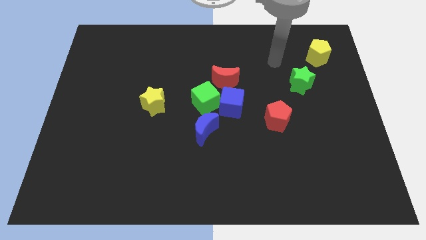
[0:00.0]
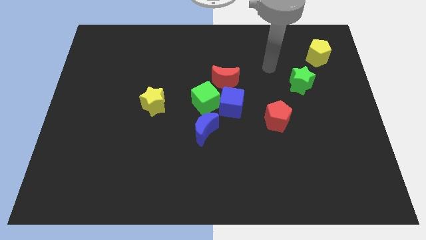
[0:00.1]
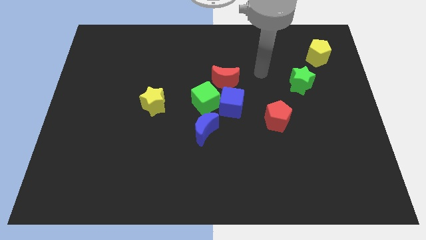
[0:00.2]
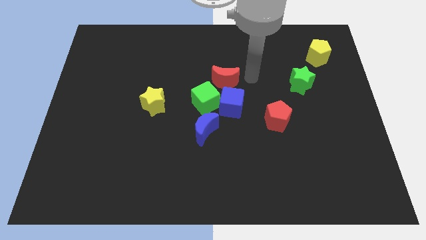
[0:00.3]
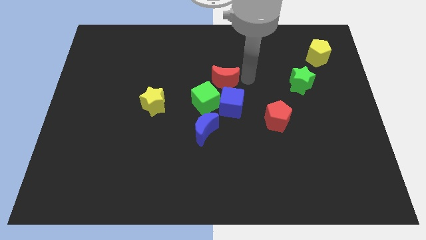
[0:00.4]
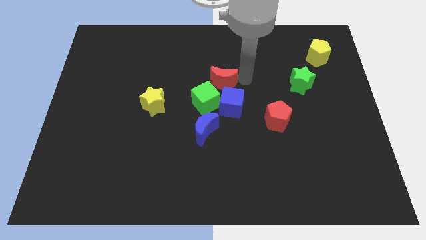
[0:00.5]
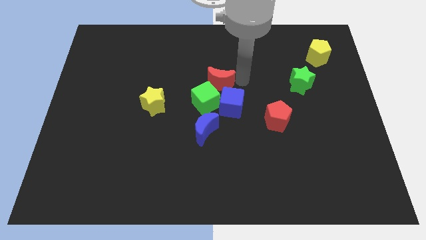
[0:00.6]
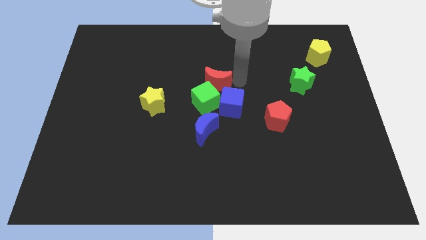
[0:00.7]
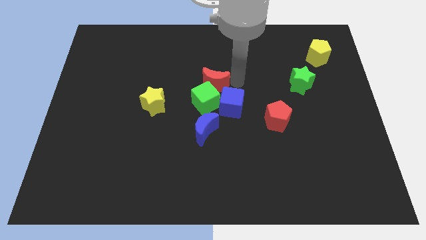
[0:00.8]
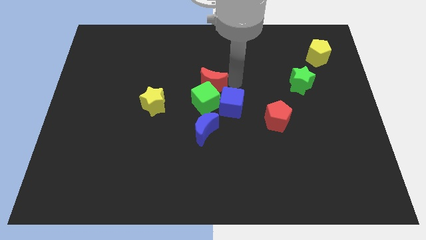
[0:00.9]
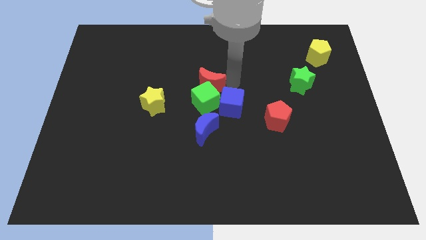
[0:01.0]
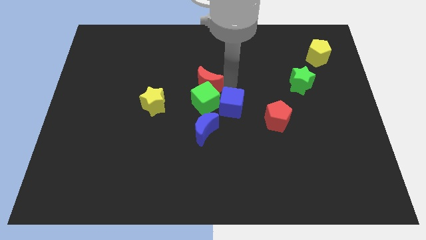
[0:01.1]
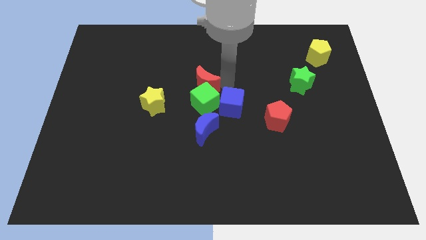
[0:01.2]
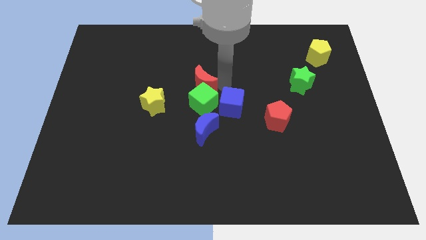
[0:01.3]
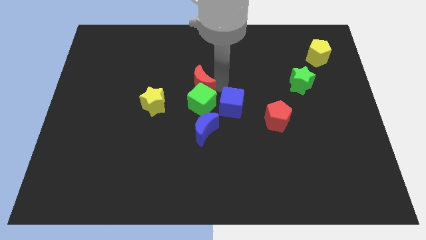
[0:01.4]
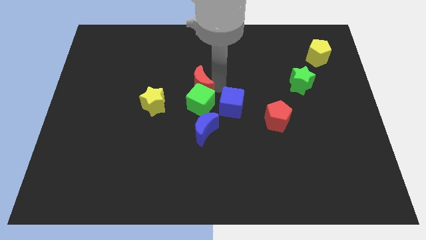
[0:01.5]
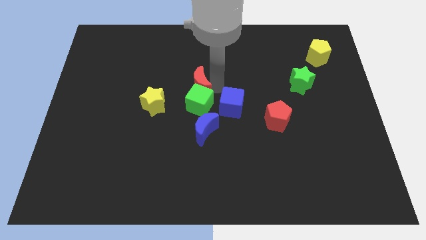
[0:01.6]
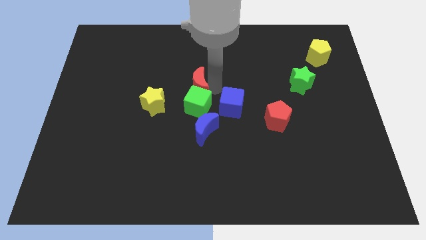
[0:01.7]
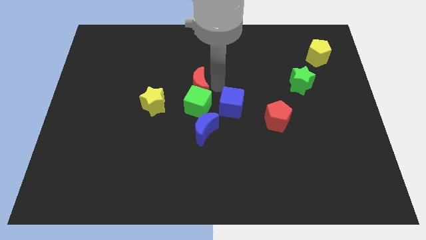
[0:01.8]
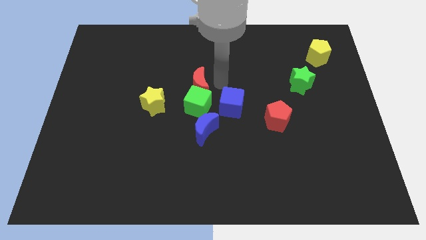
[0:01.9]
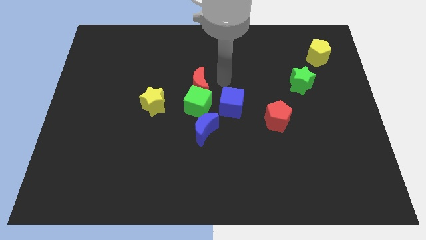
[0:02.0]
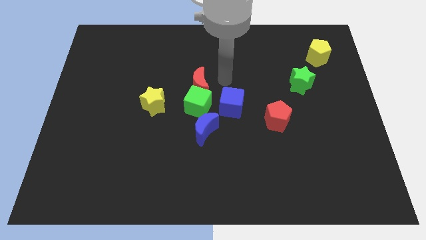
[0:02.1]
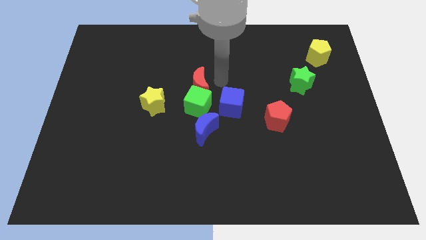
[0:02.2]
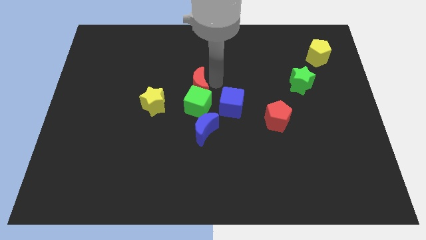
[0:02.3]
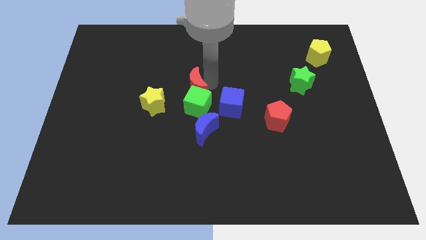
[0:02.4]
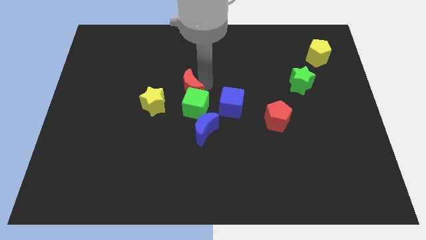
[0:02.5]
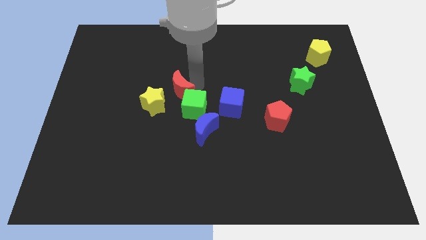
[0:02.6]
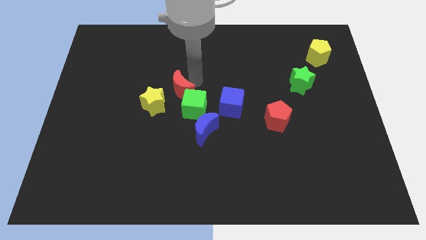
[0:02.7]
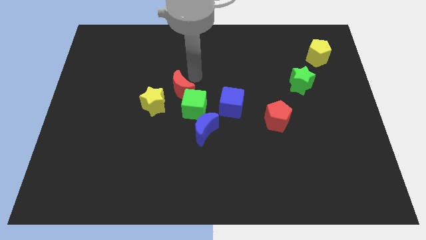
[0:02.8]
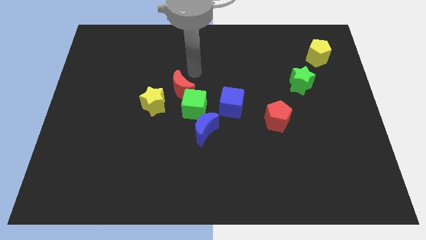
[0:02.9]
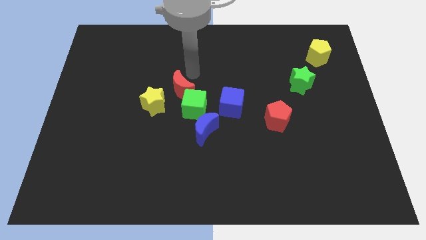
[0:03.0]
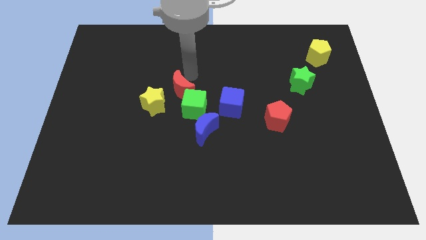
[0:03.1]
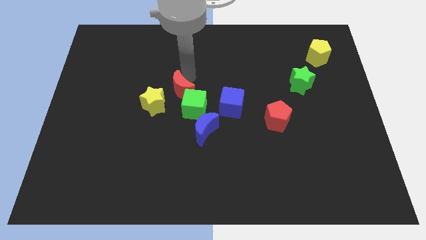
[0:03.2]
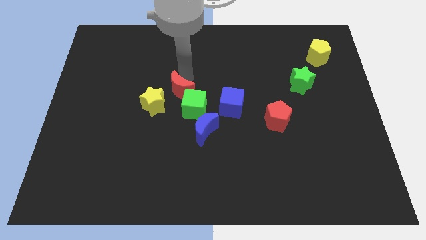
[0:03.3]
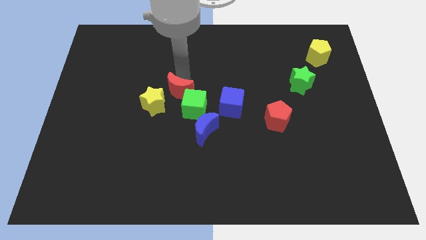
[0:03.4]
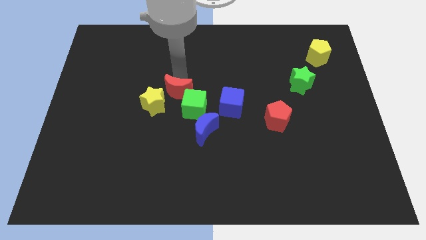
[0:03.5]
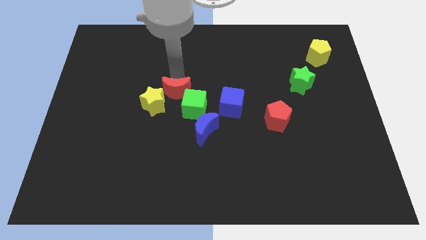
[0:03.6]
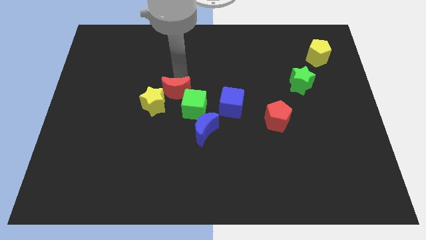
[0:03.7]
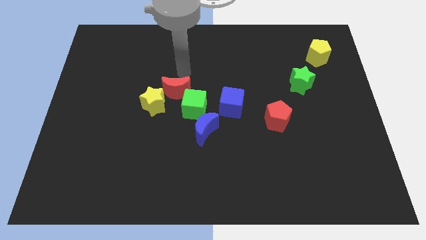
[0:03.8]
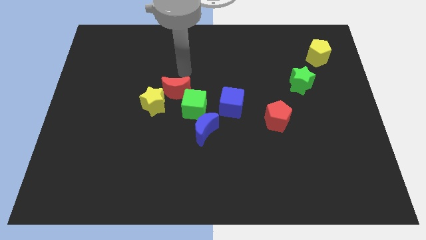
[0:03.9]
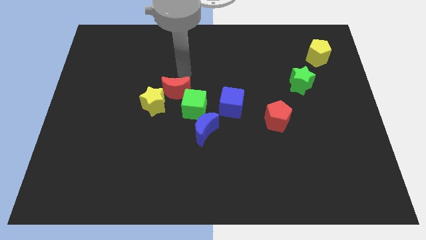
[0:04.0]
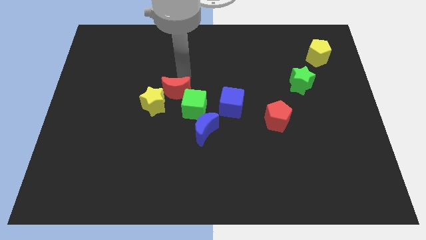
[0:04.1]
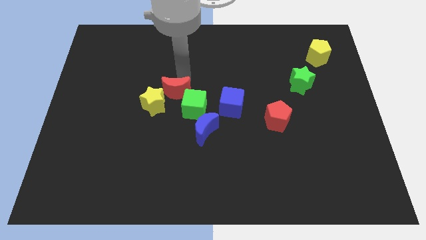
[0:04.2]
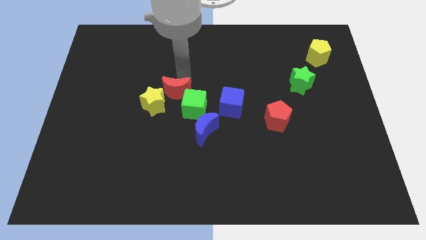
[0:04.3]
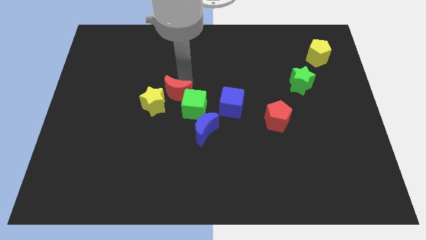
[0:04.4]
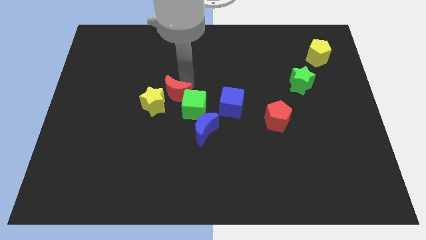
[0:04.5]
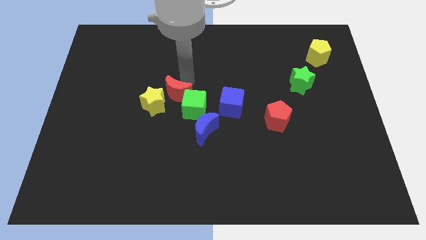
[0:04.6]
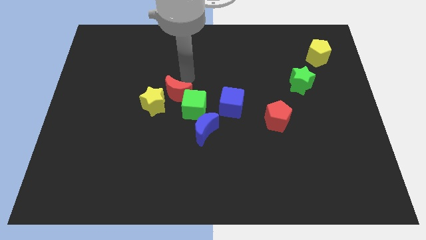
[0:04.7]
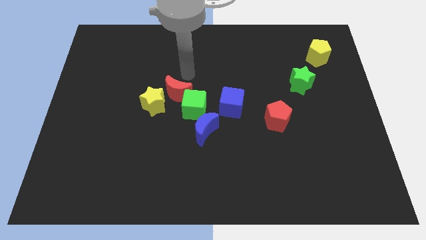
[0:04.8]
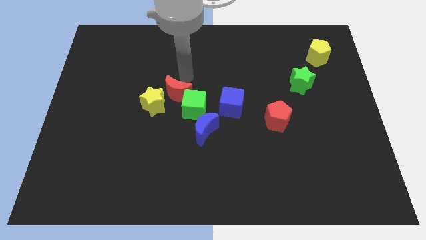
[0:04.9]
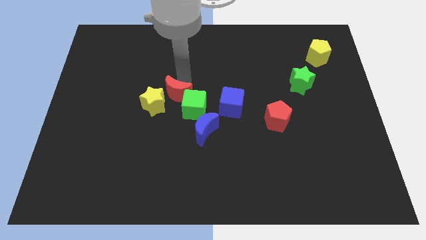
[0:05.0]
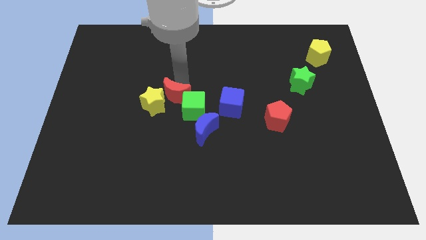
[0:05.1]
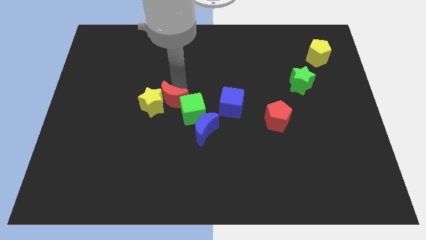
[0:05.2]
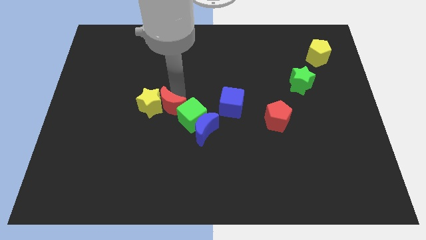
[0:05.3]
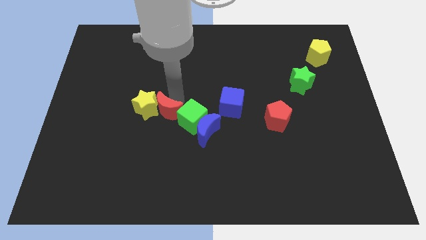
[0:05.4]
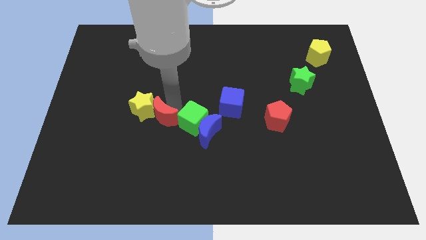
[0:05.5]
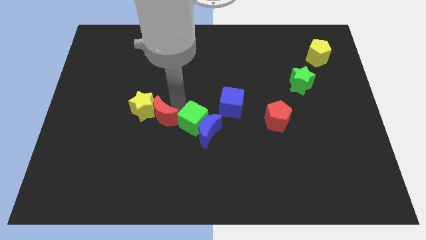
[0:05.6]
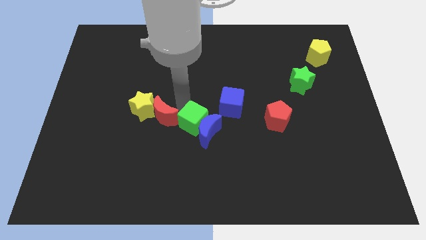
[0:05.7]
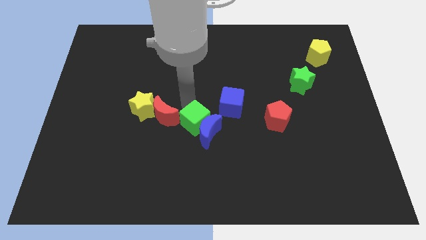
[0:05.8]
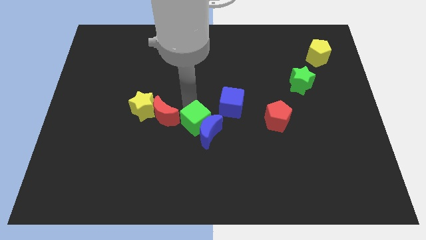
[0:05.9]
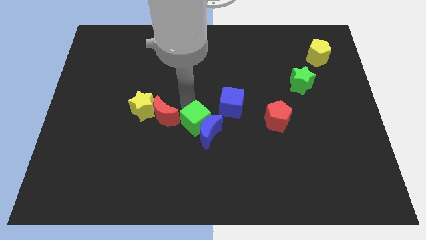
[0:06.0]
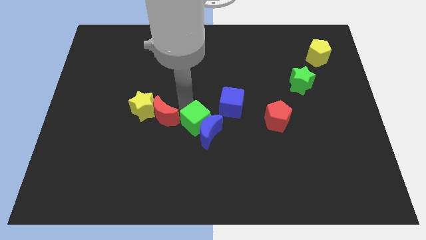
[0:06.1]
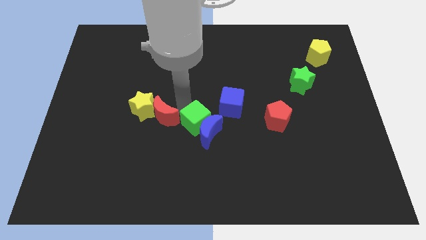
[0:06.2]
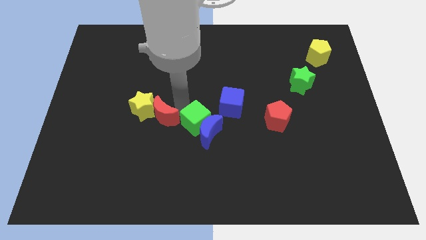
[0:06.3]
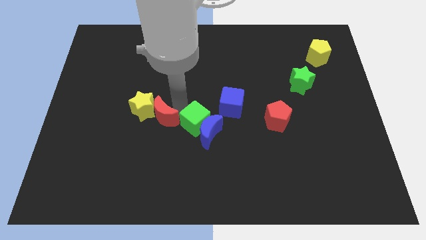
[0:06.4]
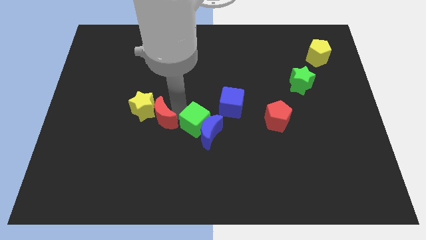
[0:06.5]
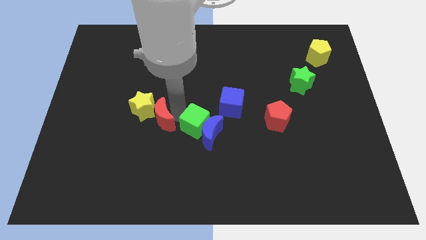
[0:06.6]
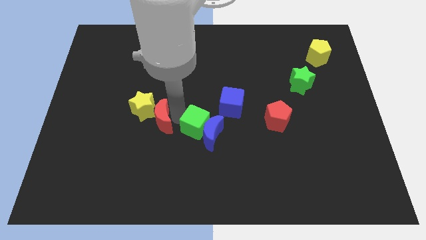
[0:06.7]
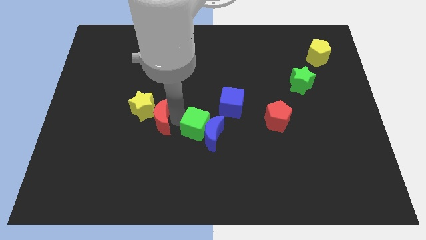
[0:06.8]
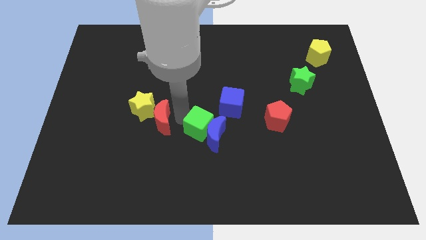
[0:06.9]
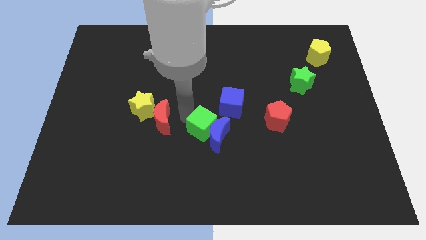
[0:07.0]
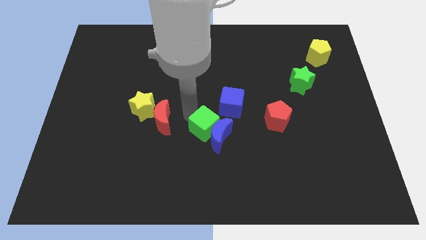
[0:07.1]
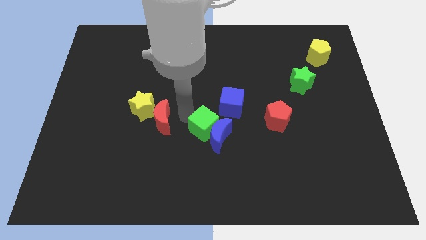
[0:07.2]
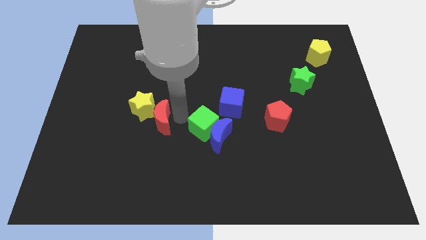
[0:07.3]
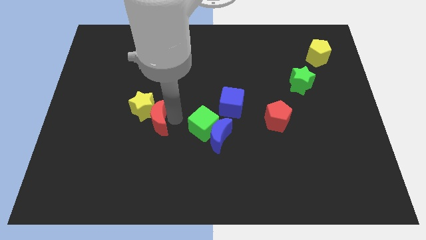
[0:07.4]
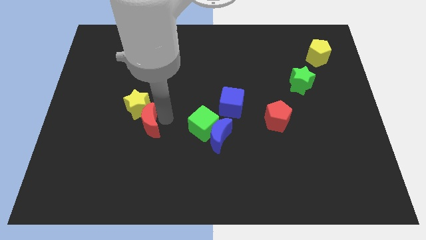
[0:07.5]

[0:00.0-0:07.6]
push the red moon diagonally down and to the left

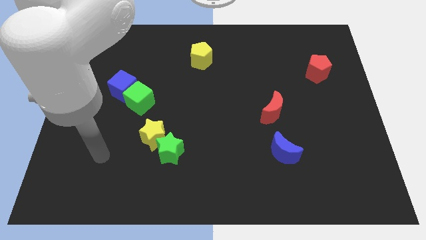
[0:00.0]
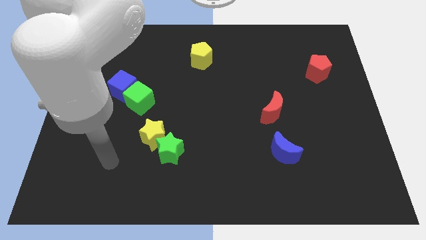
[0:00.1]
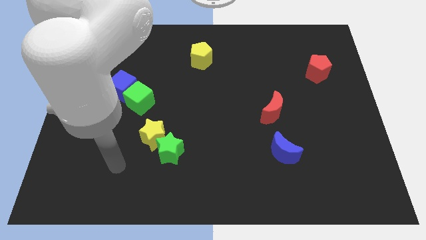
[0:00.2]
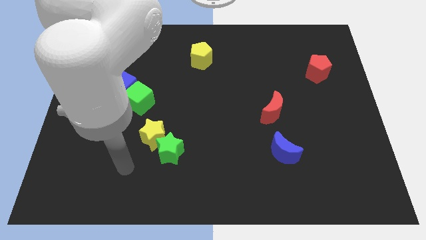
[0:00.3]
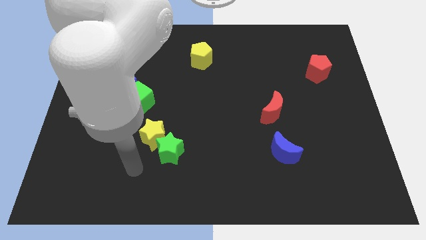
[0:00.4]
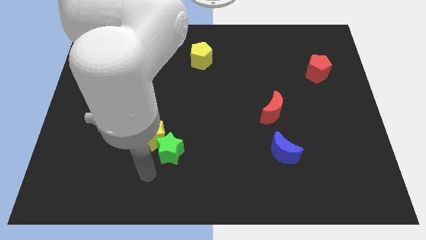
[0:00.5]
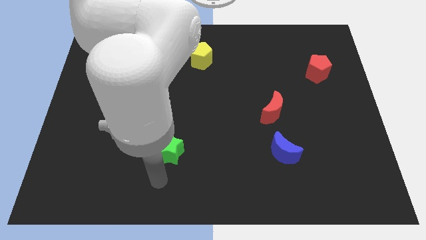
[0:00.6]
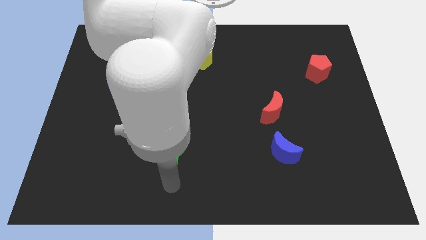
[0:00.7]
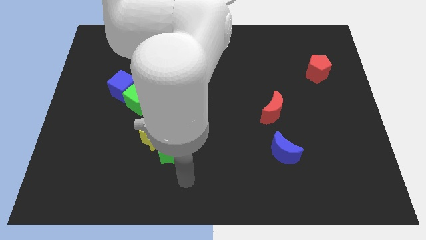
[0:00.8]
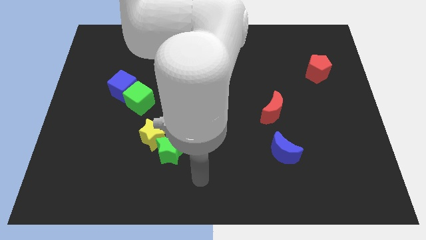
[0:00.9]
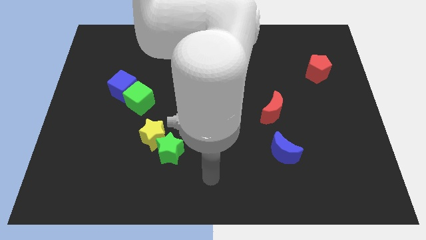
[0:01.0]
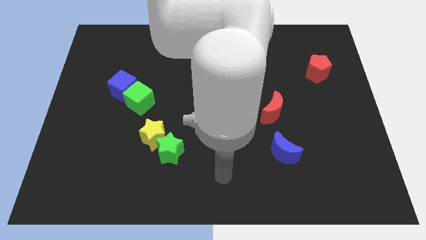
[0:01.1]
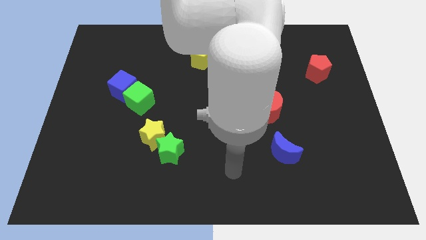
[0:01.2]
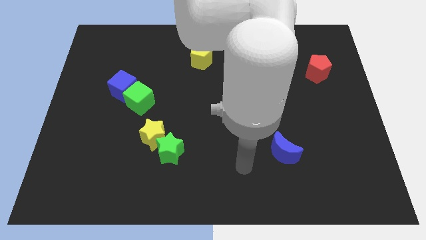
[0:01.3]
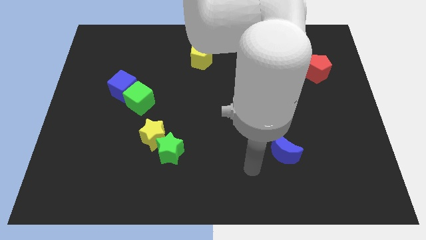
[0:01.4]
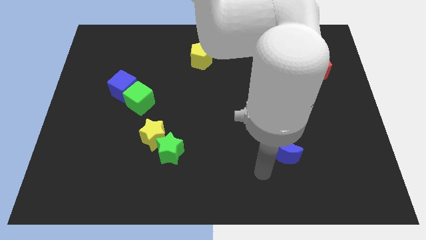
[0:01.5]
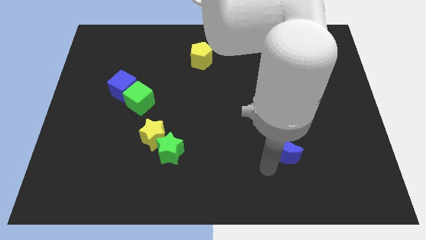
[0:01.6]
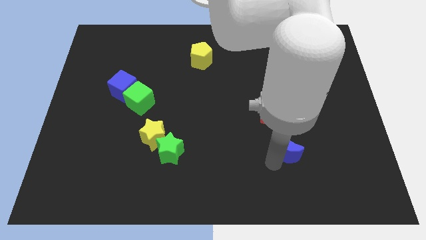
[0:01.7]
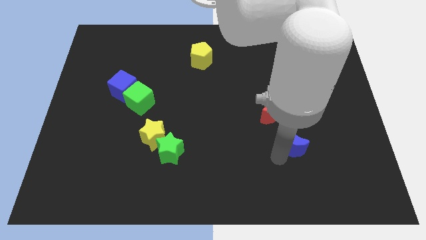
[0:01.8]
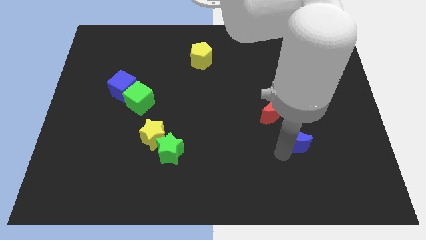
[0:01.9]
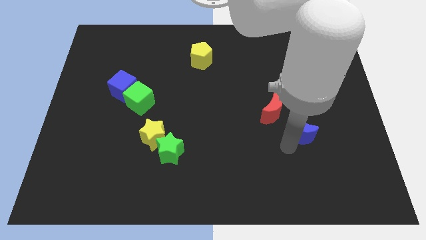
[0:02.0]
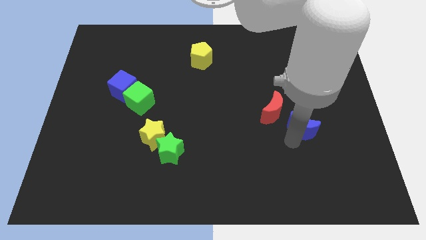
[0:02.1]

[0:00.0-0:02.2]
move the blue moon somewhat up and to the right diagonally
